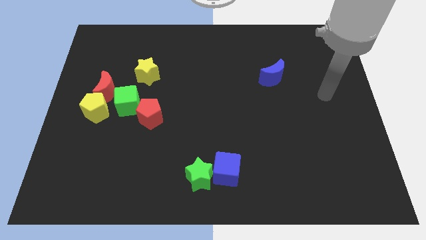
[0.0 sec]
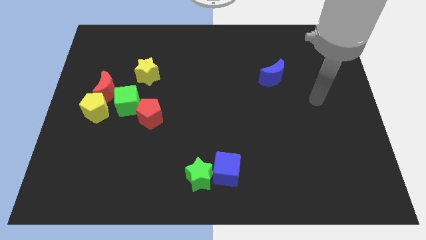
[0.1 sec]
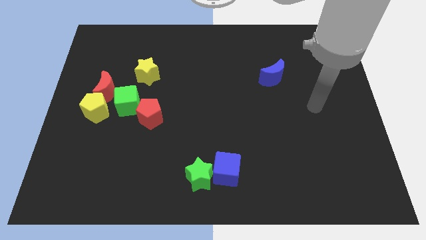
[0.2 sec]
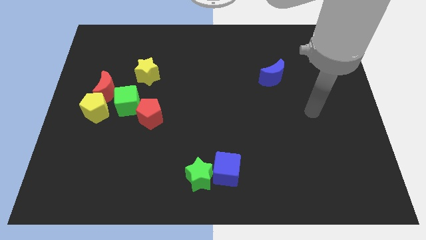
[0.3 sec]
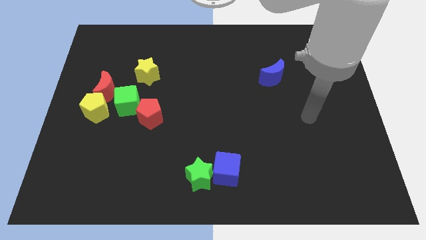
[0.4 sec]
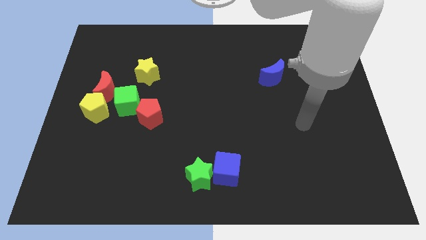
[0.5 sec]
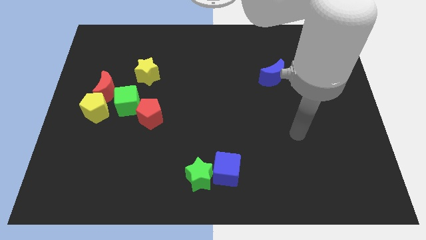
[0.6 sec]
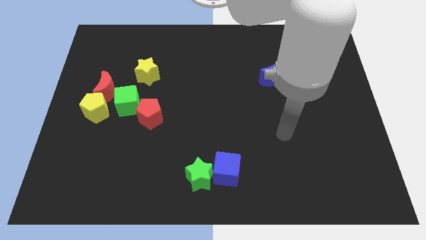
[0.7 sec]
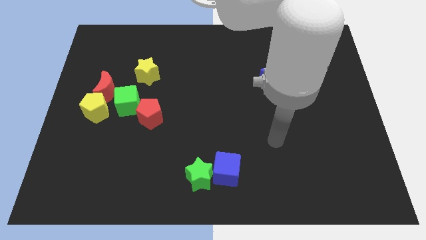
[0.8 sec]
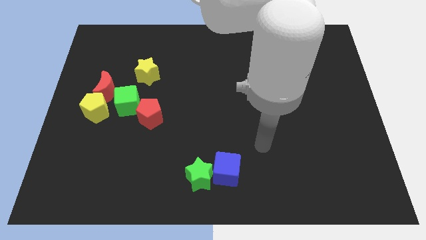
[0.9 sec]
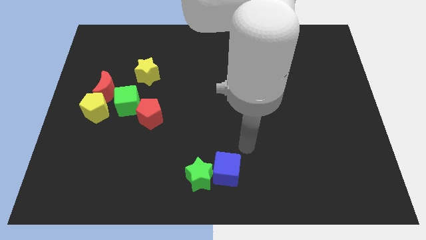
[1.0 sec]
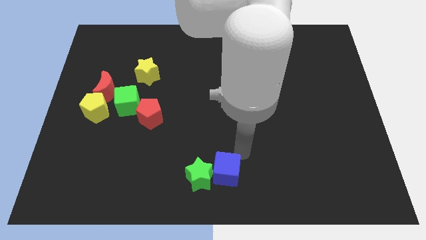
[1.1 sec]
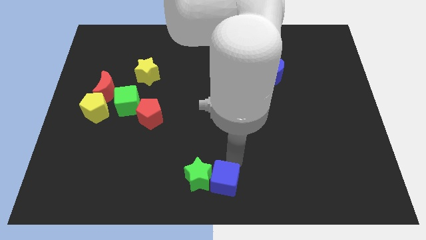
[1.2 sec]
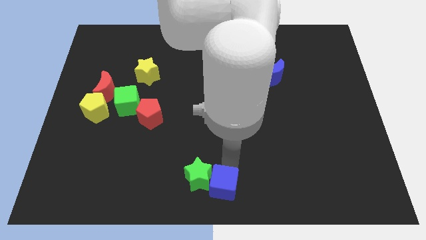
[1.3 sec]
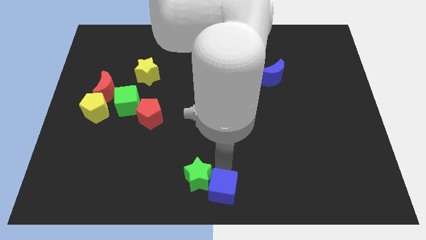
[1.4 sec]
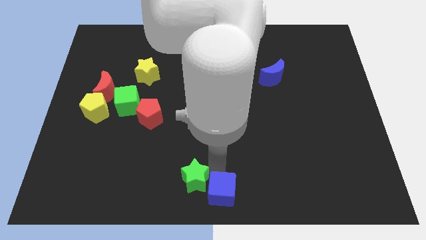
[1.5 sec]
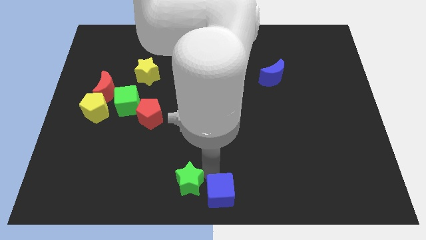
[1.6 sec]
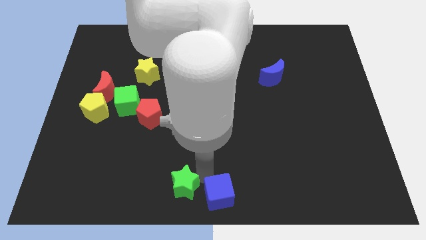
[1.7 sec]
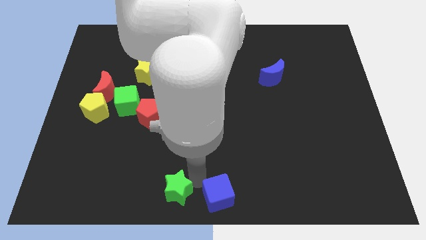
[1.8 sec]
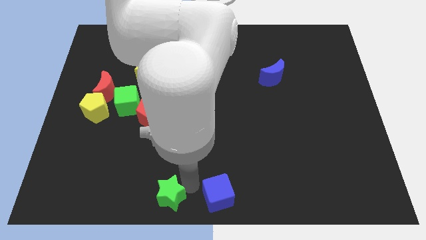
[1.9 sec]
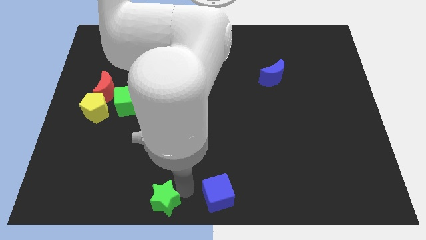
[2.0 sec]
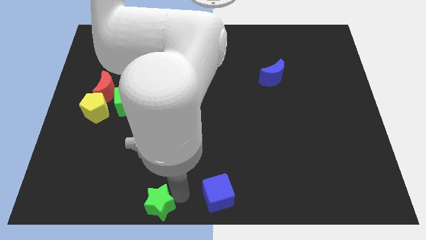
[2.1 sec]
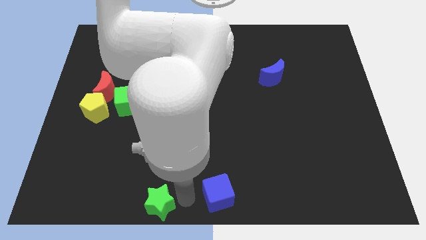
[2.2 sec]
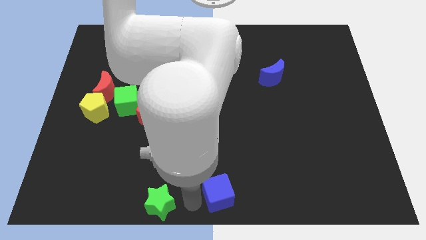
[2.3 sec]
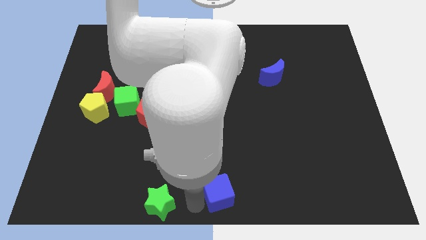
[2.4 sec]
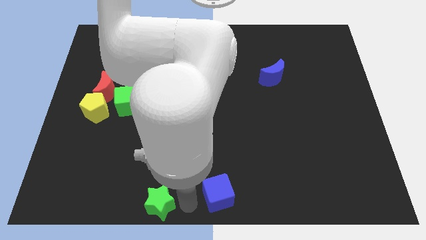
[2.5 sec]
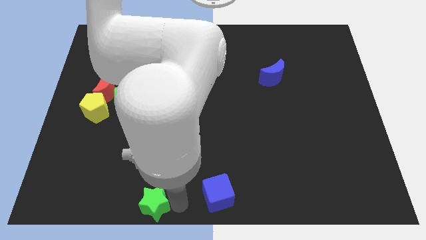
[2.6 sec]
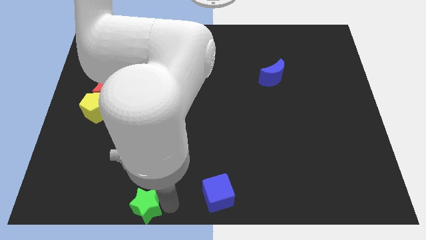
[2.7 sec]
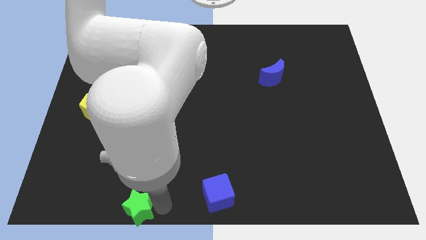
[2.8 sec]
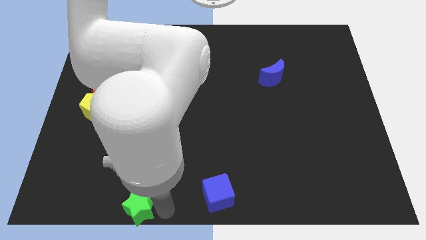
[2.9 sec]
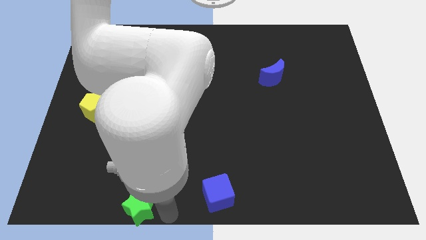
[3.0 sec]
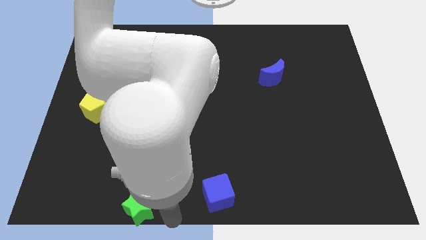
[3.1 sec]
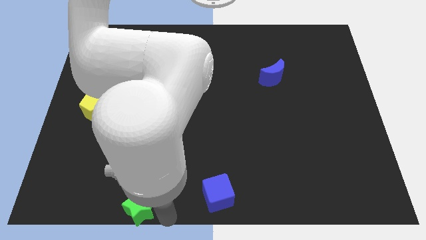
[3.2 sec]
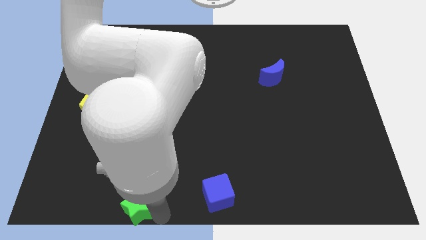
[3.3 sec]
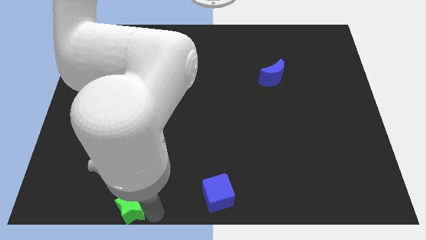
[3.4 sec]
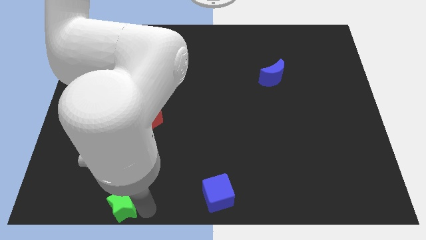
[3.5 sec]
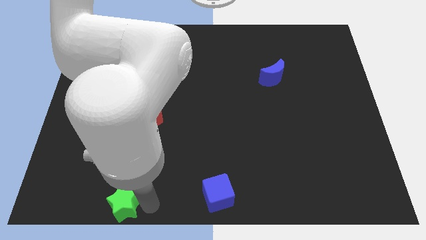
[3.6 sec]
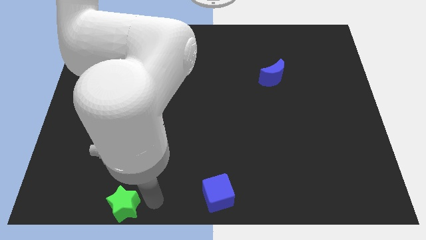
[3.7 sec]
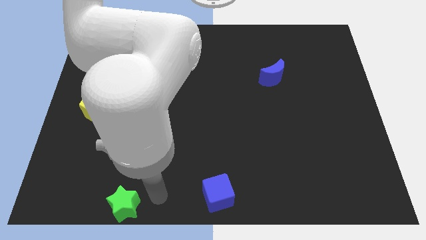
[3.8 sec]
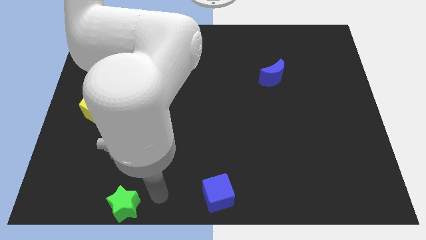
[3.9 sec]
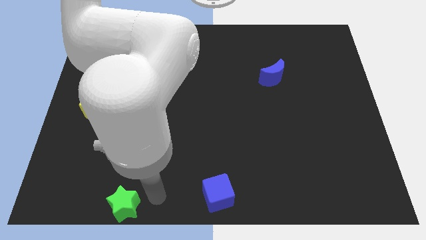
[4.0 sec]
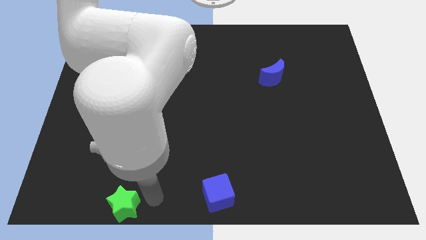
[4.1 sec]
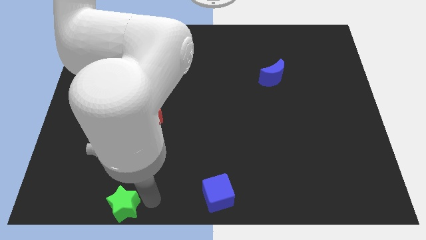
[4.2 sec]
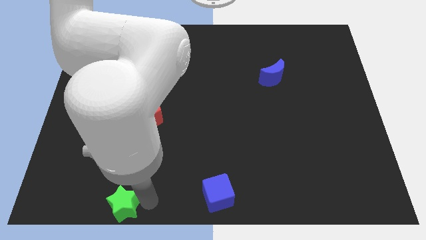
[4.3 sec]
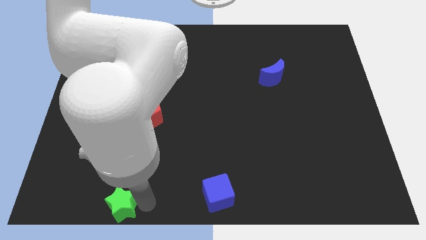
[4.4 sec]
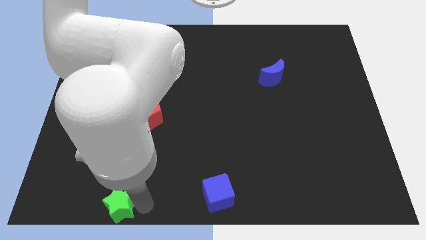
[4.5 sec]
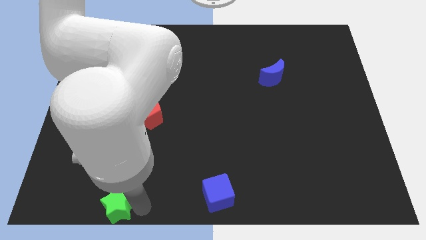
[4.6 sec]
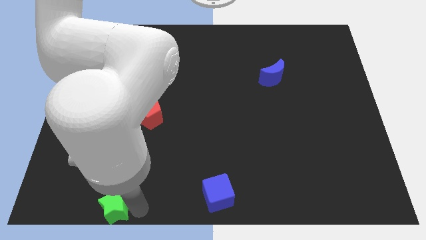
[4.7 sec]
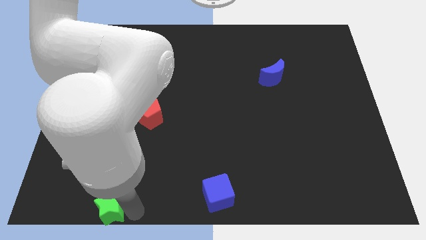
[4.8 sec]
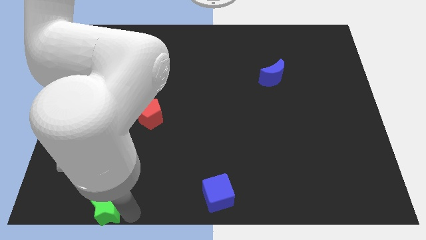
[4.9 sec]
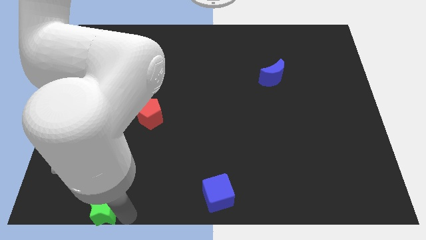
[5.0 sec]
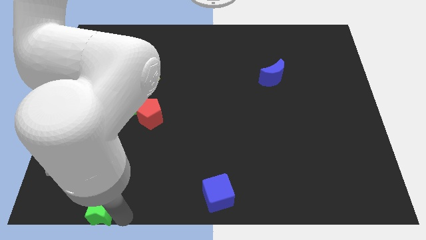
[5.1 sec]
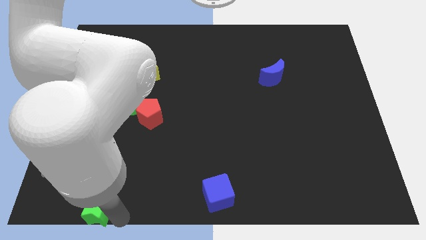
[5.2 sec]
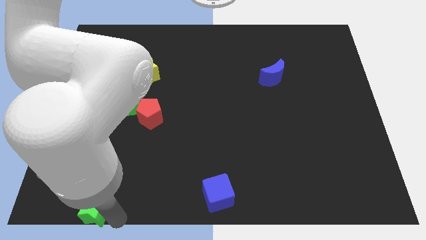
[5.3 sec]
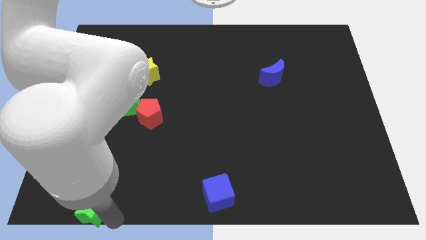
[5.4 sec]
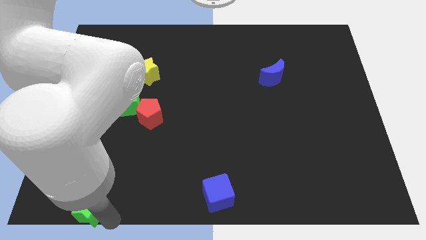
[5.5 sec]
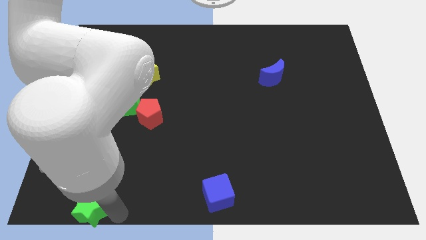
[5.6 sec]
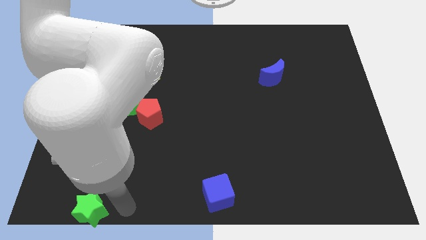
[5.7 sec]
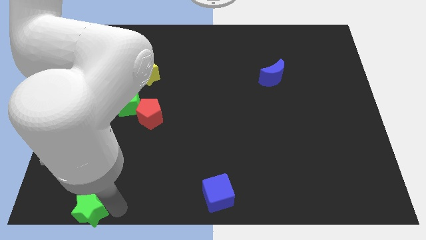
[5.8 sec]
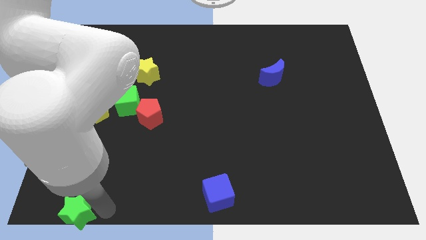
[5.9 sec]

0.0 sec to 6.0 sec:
move the green star to the bottom left corner

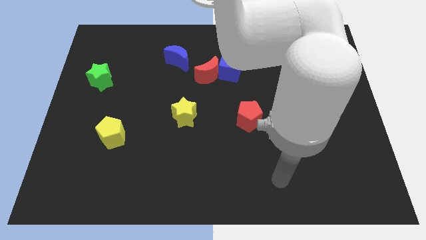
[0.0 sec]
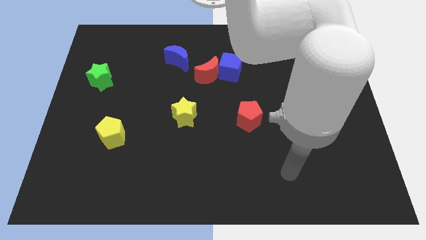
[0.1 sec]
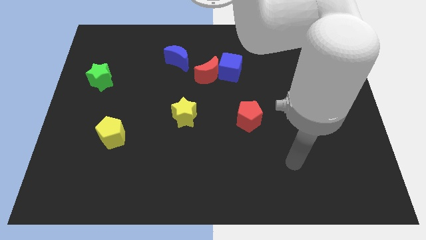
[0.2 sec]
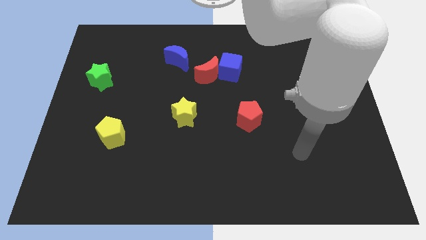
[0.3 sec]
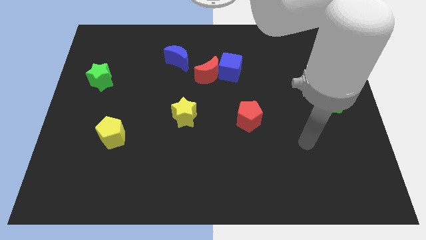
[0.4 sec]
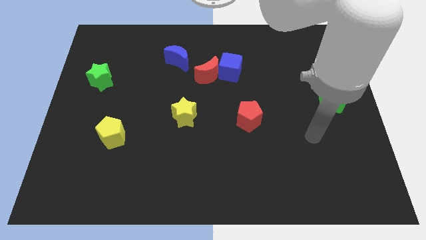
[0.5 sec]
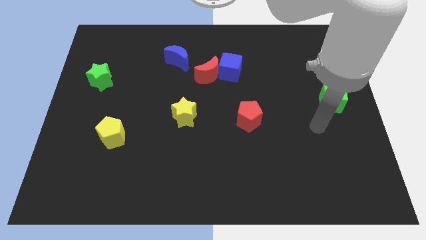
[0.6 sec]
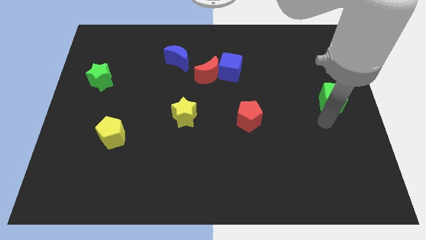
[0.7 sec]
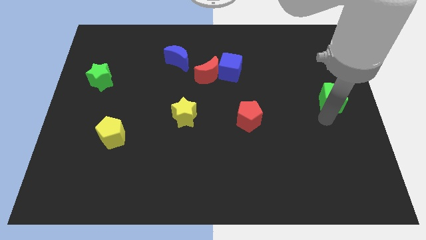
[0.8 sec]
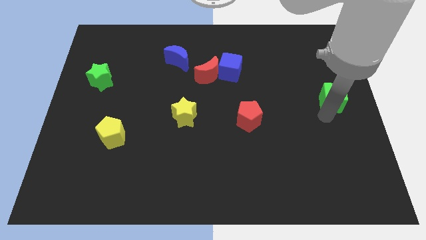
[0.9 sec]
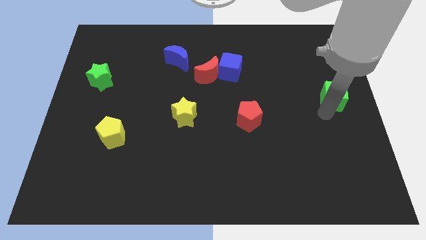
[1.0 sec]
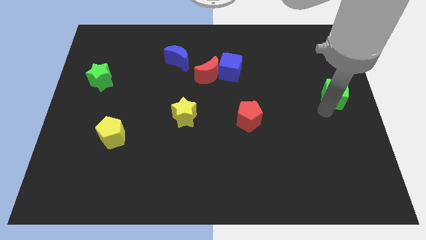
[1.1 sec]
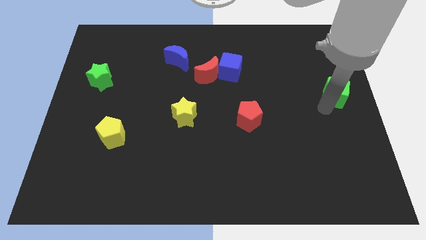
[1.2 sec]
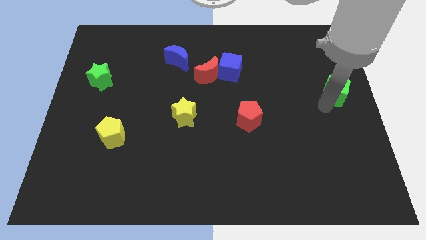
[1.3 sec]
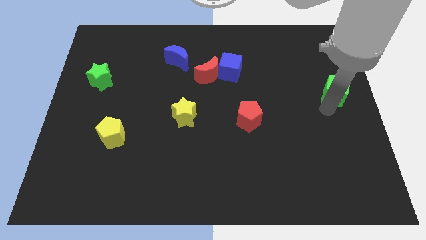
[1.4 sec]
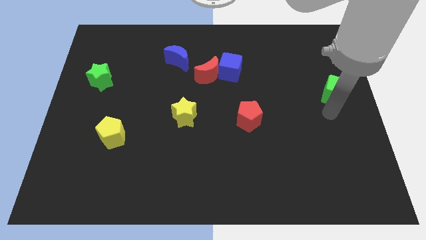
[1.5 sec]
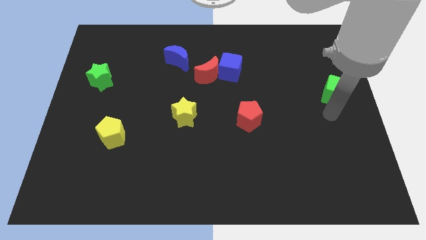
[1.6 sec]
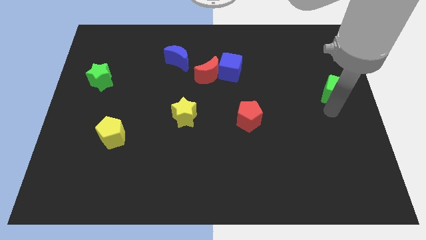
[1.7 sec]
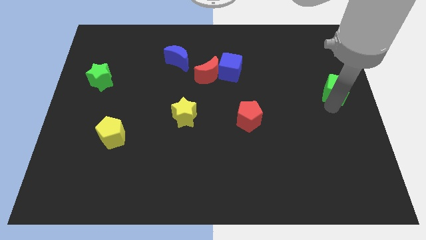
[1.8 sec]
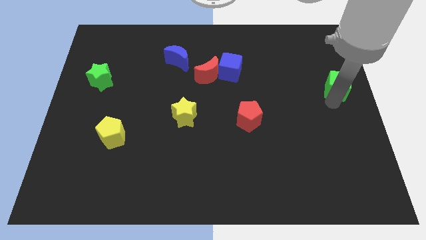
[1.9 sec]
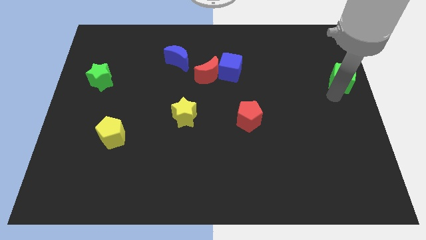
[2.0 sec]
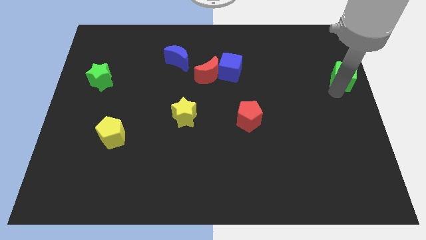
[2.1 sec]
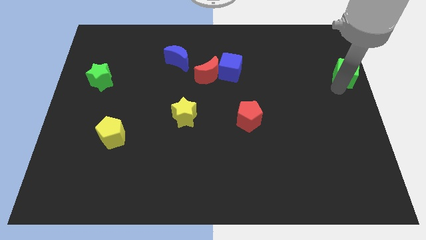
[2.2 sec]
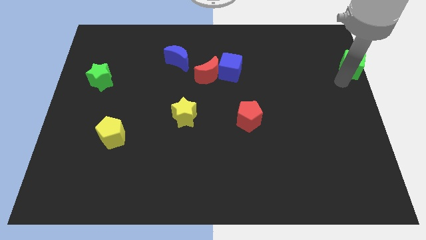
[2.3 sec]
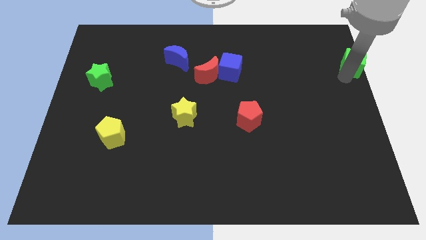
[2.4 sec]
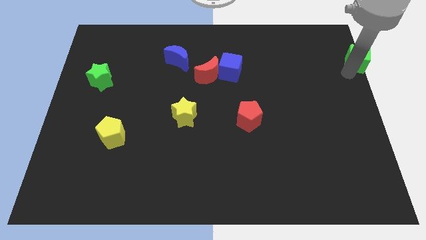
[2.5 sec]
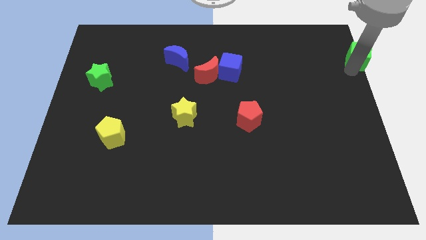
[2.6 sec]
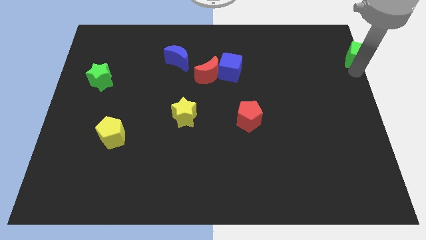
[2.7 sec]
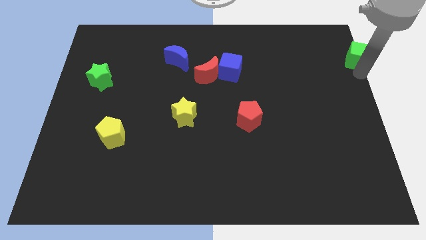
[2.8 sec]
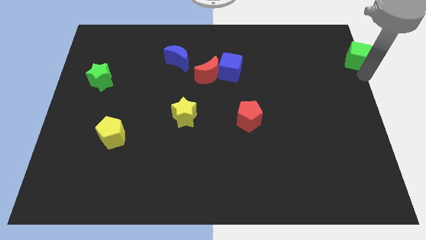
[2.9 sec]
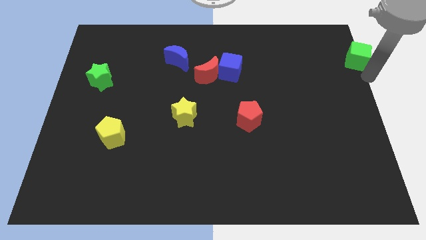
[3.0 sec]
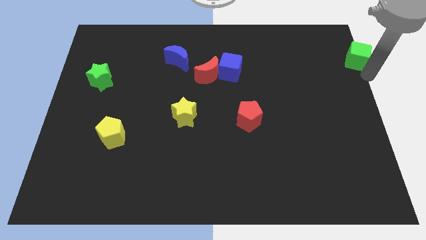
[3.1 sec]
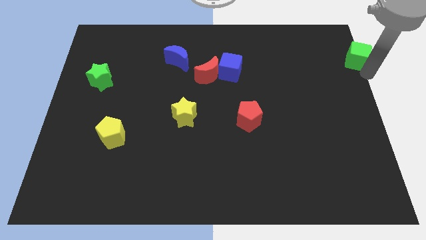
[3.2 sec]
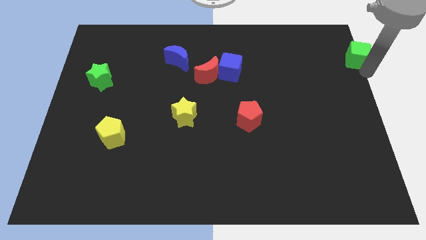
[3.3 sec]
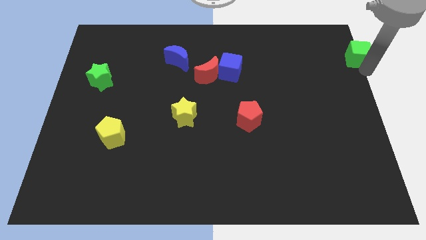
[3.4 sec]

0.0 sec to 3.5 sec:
move the green cube to the upper right corner
